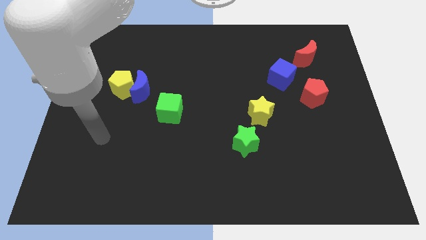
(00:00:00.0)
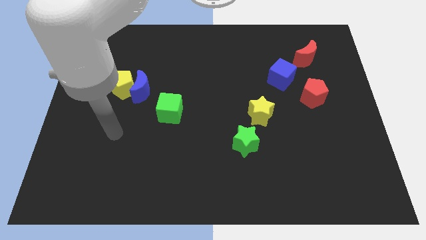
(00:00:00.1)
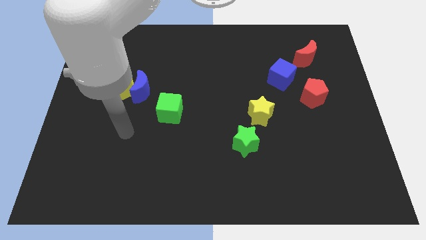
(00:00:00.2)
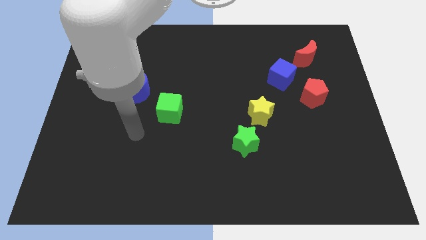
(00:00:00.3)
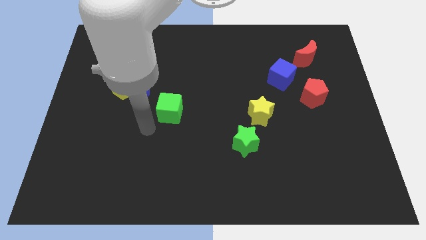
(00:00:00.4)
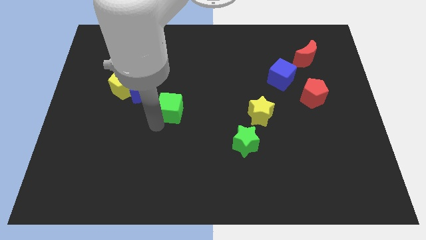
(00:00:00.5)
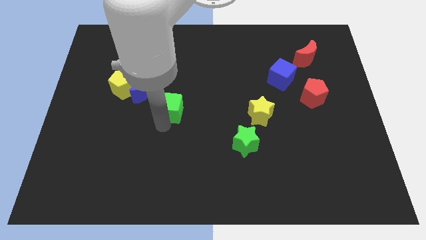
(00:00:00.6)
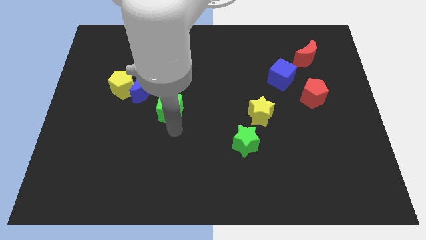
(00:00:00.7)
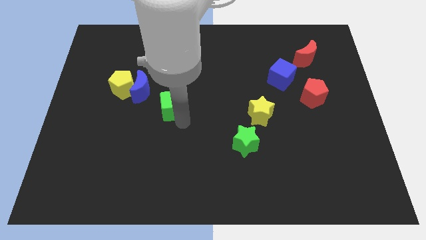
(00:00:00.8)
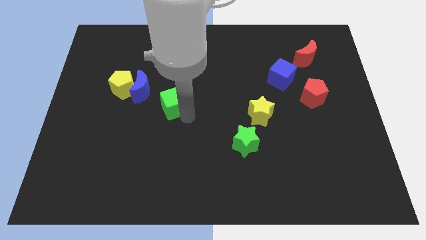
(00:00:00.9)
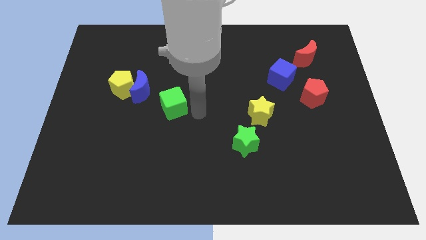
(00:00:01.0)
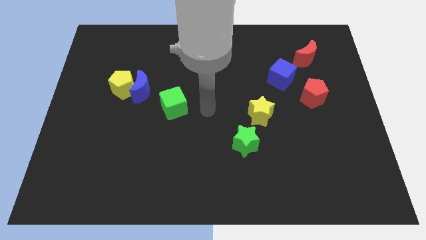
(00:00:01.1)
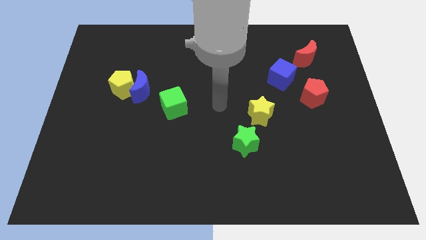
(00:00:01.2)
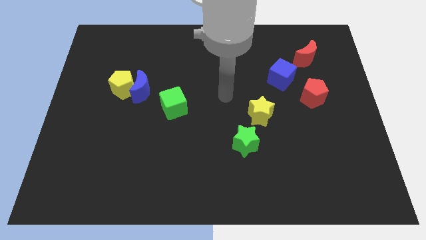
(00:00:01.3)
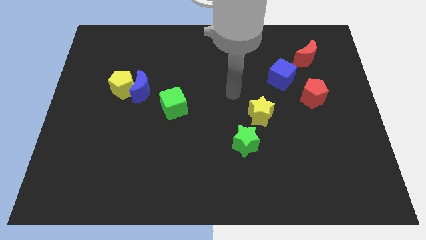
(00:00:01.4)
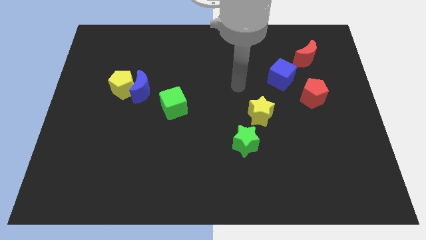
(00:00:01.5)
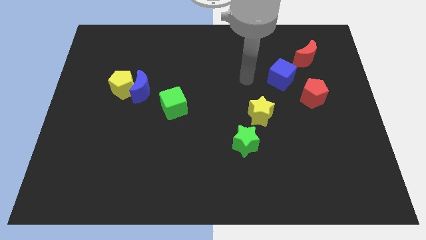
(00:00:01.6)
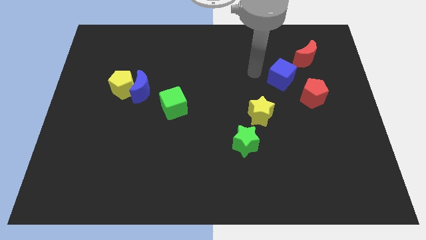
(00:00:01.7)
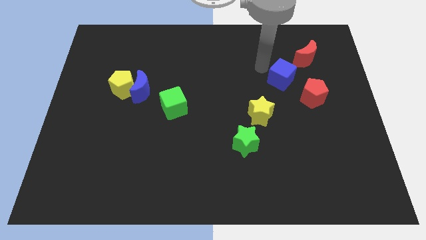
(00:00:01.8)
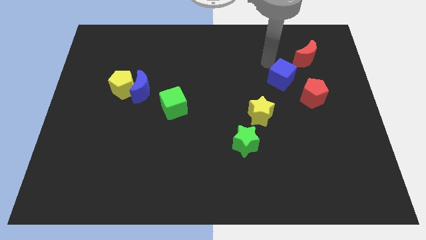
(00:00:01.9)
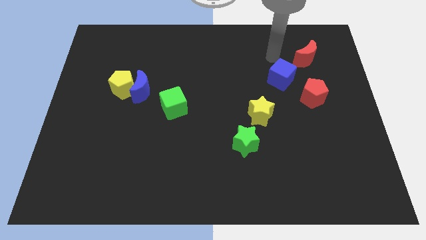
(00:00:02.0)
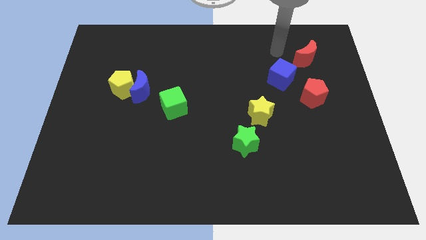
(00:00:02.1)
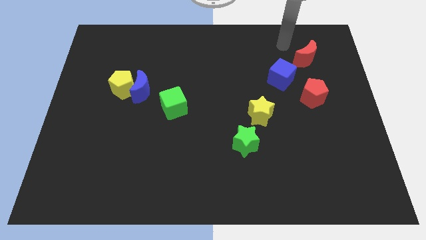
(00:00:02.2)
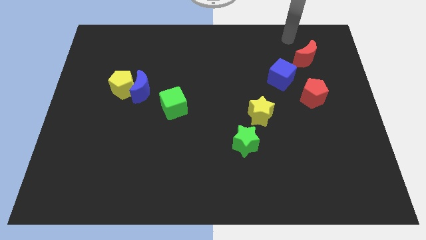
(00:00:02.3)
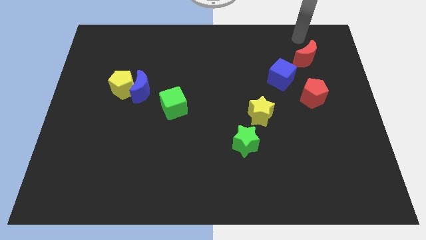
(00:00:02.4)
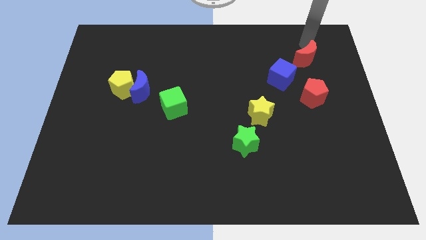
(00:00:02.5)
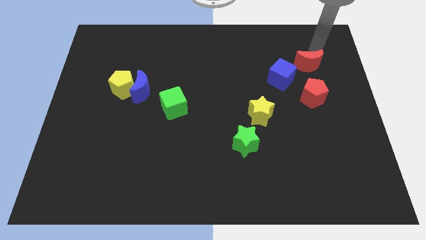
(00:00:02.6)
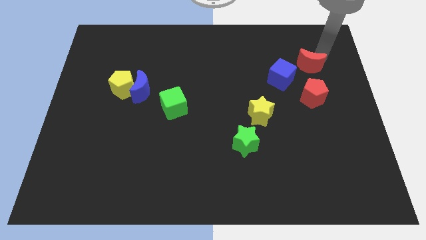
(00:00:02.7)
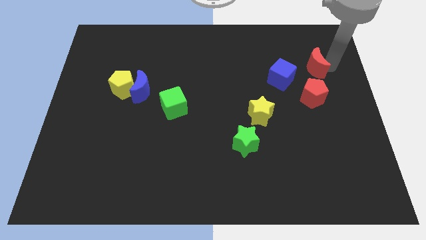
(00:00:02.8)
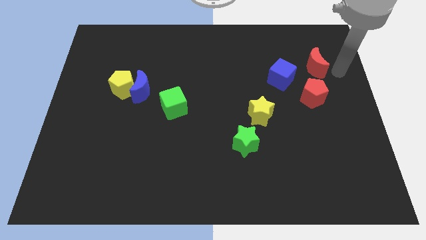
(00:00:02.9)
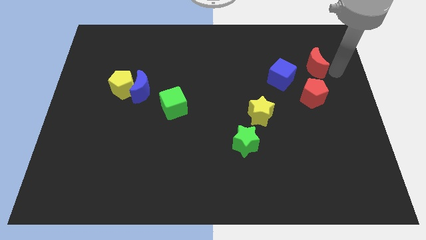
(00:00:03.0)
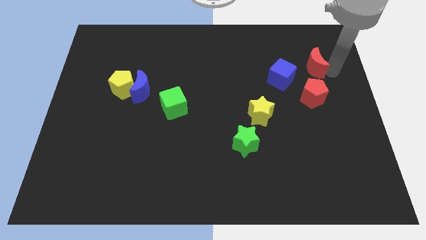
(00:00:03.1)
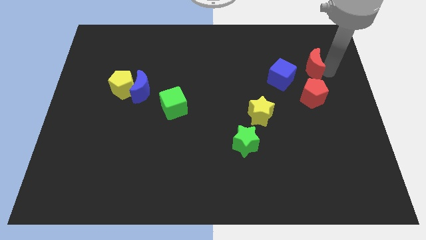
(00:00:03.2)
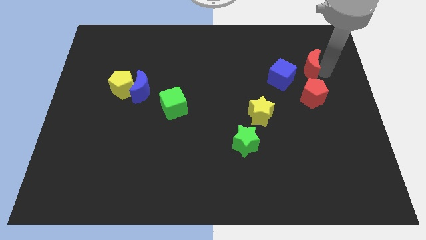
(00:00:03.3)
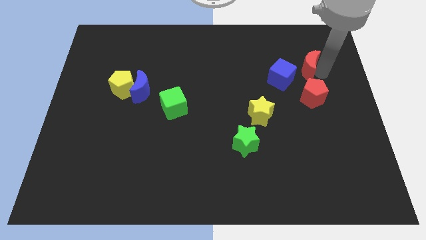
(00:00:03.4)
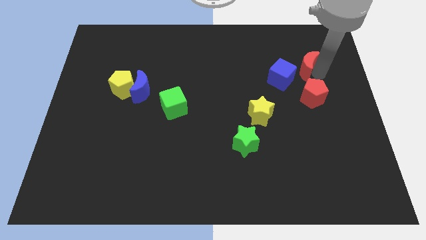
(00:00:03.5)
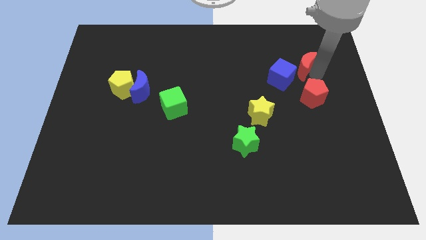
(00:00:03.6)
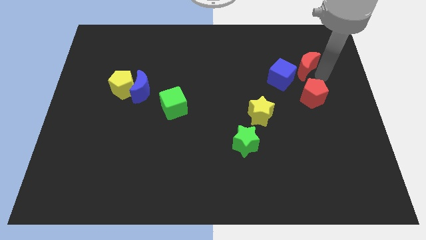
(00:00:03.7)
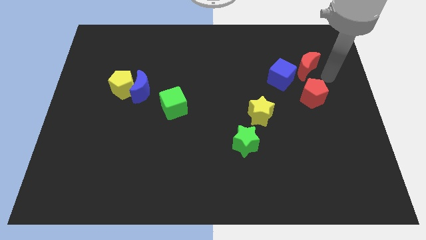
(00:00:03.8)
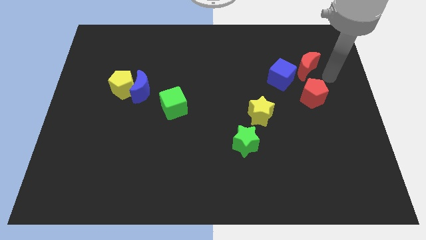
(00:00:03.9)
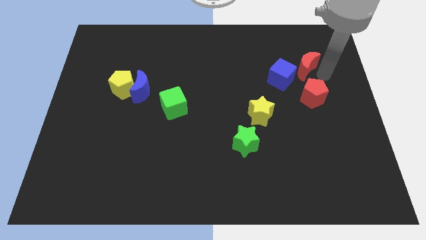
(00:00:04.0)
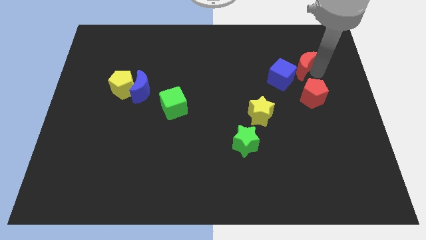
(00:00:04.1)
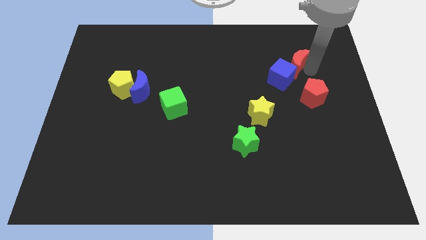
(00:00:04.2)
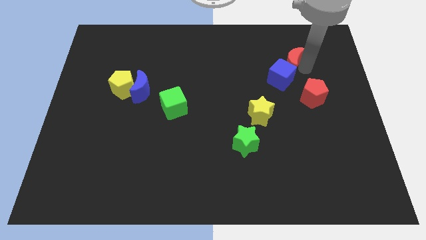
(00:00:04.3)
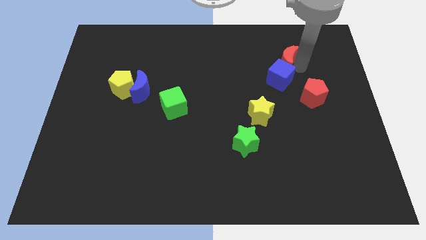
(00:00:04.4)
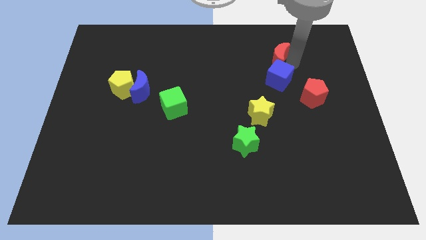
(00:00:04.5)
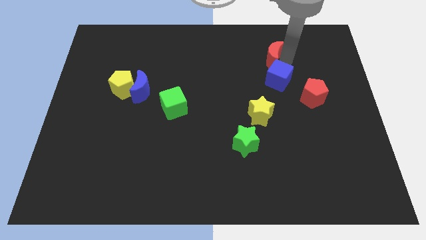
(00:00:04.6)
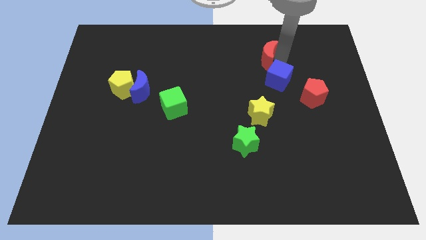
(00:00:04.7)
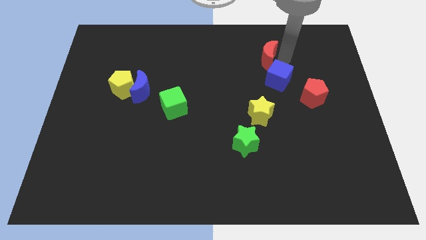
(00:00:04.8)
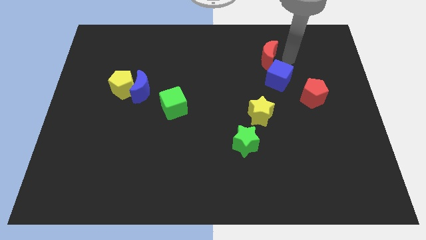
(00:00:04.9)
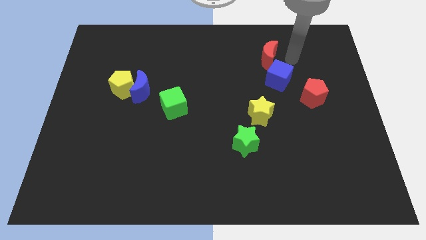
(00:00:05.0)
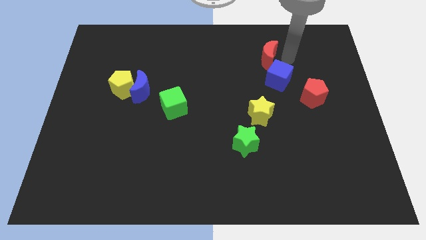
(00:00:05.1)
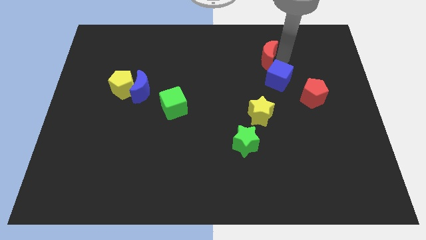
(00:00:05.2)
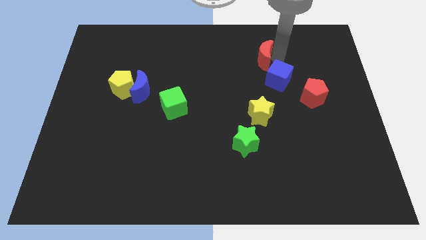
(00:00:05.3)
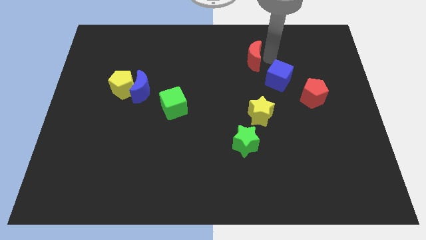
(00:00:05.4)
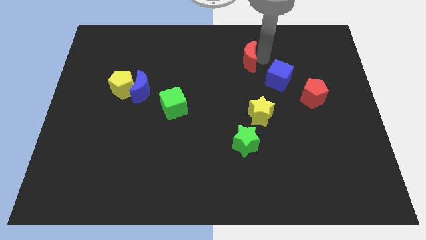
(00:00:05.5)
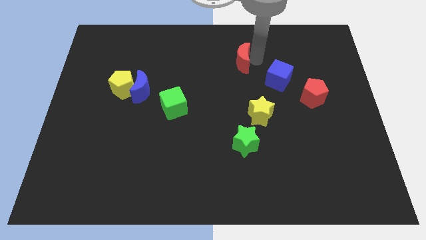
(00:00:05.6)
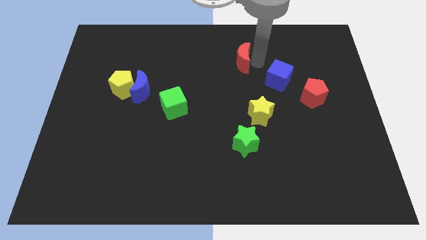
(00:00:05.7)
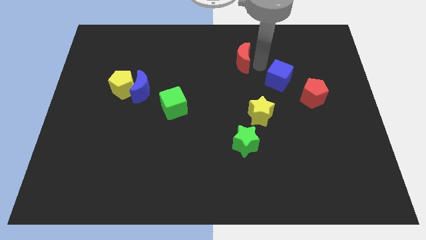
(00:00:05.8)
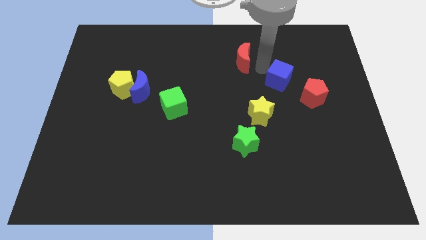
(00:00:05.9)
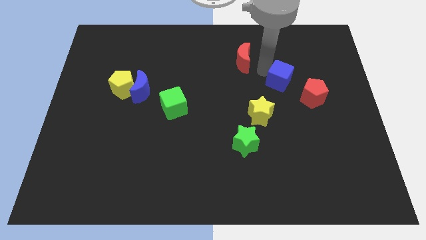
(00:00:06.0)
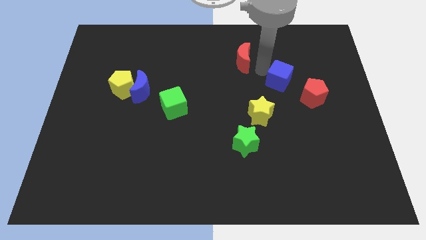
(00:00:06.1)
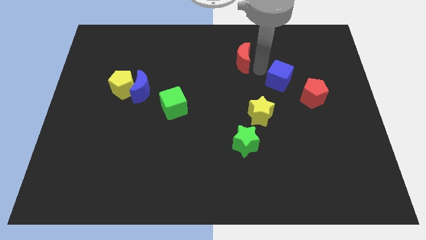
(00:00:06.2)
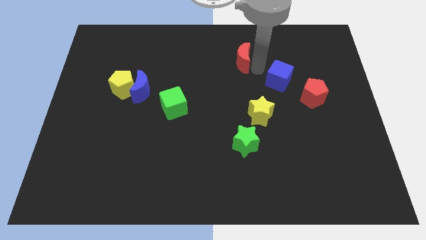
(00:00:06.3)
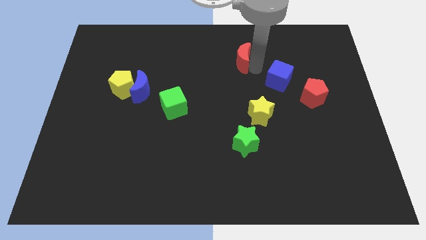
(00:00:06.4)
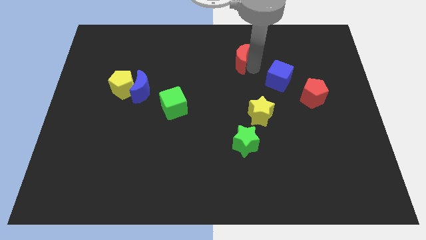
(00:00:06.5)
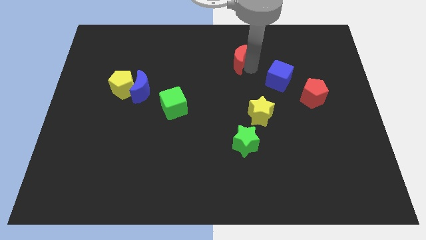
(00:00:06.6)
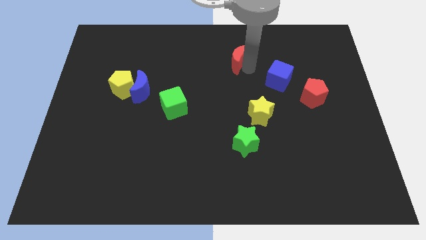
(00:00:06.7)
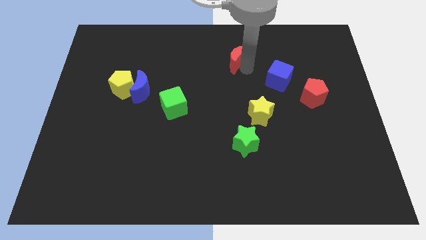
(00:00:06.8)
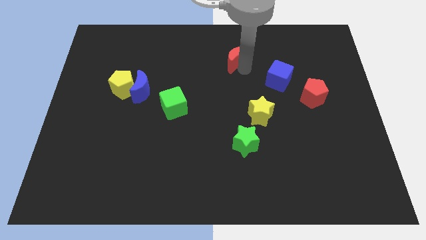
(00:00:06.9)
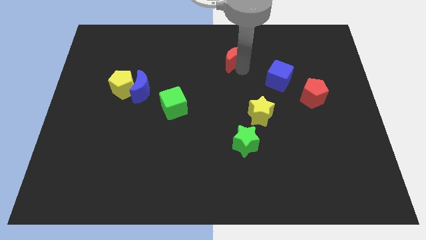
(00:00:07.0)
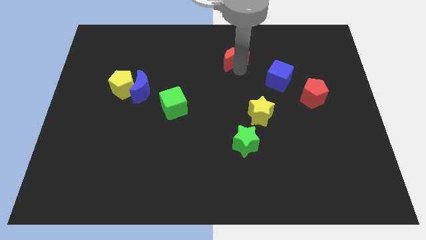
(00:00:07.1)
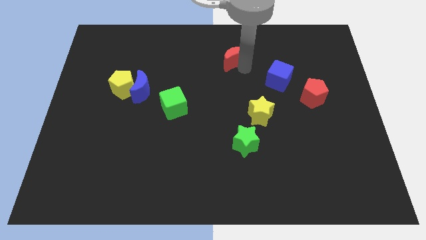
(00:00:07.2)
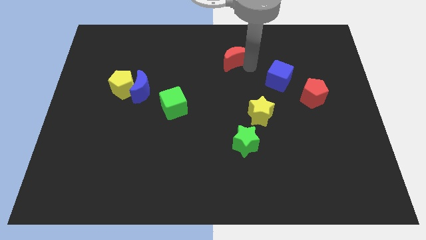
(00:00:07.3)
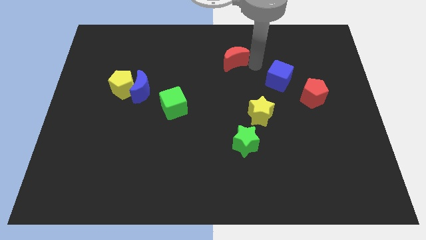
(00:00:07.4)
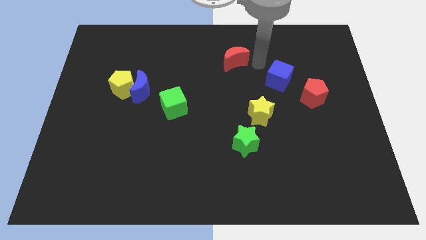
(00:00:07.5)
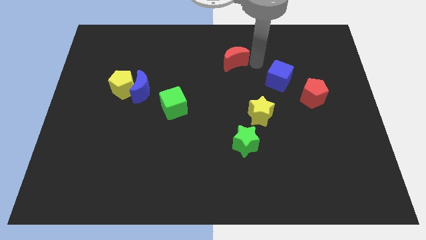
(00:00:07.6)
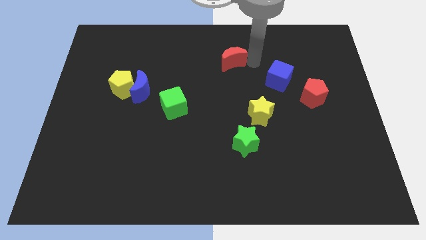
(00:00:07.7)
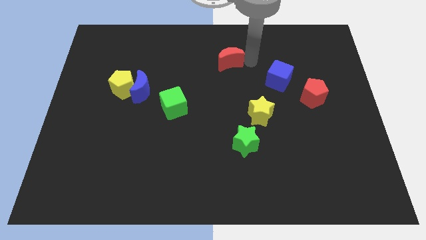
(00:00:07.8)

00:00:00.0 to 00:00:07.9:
slide the red moon left

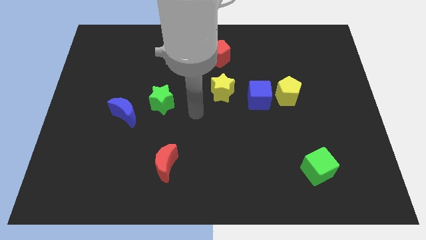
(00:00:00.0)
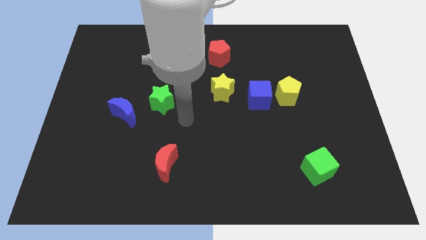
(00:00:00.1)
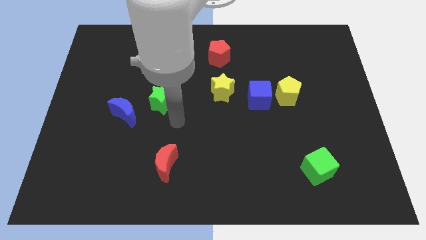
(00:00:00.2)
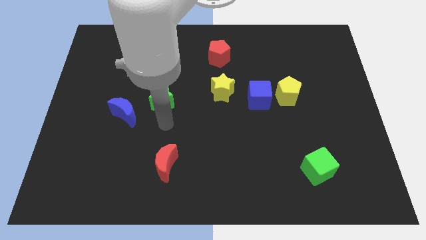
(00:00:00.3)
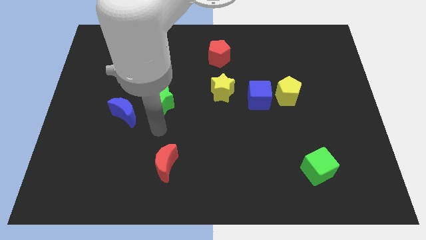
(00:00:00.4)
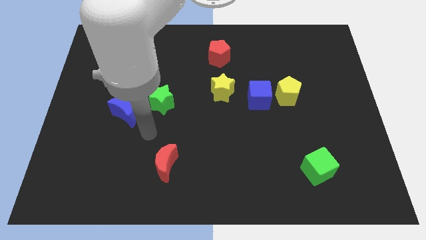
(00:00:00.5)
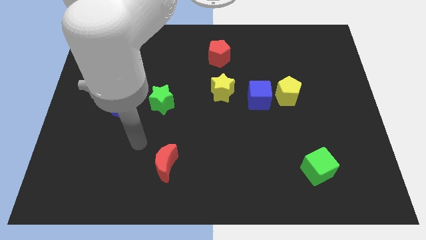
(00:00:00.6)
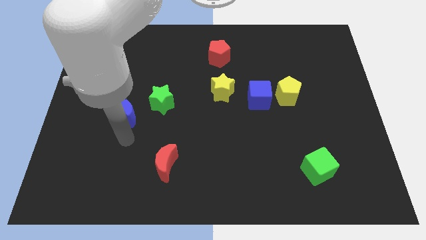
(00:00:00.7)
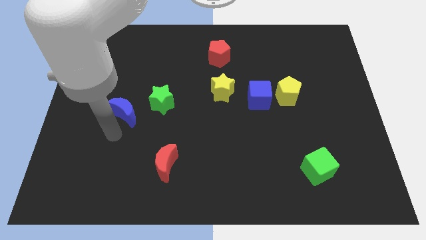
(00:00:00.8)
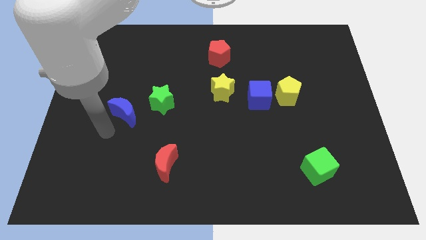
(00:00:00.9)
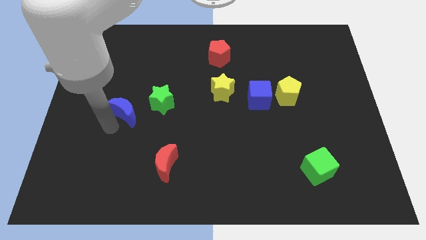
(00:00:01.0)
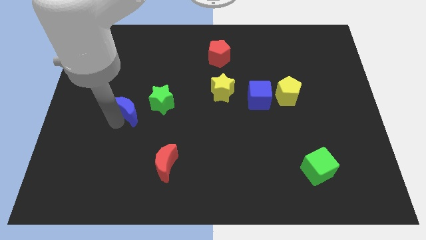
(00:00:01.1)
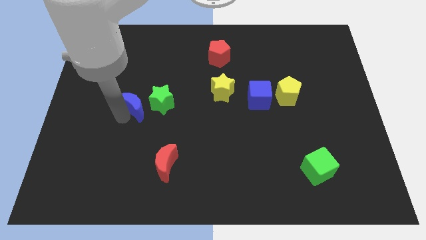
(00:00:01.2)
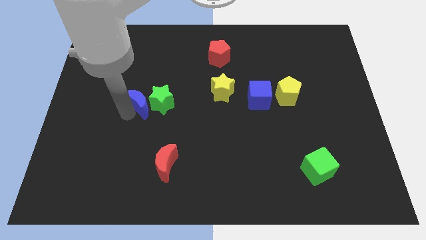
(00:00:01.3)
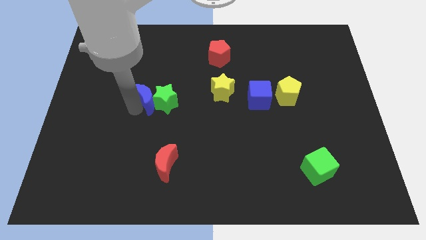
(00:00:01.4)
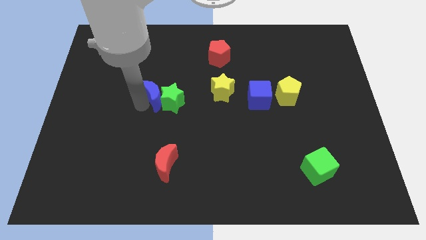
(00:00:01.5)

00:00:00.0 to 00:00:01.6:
slightly push the blue moon up and to the right diagonally
